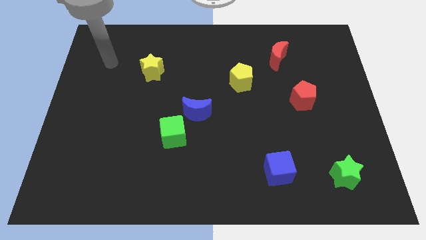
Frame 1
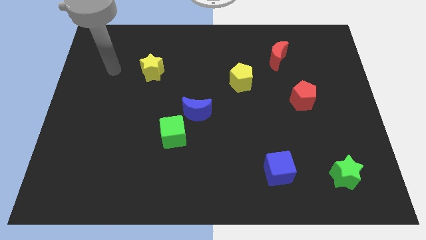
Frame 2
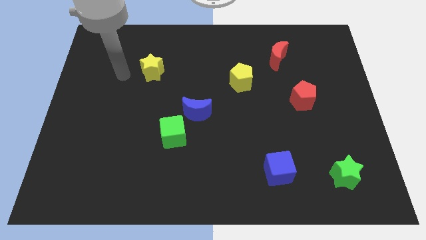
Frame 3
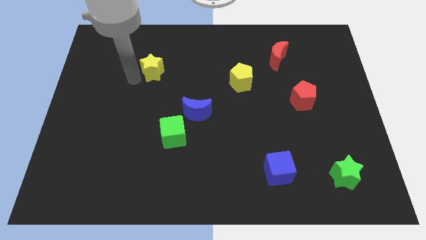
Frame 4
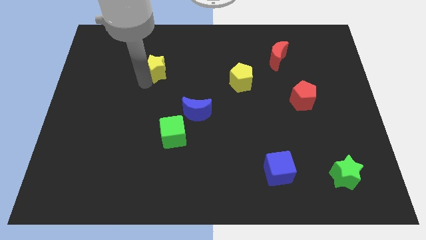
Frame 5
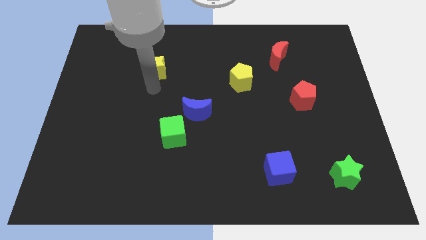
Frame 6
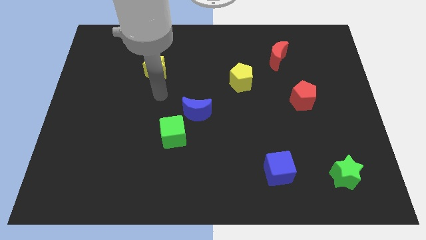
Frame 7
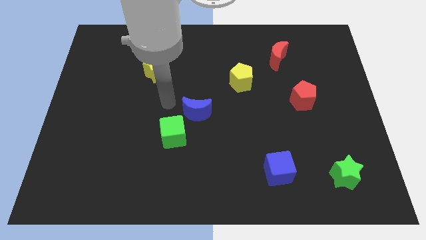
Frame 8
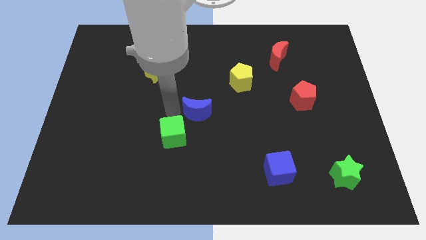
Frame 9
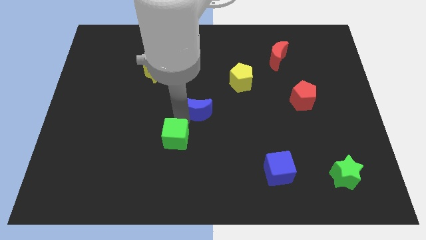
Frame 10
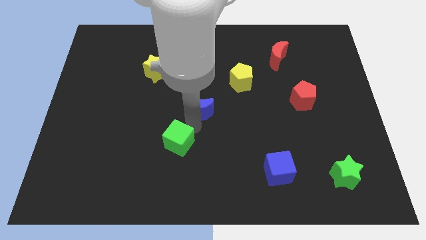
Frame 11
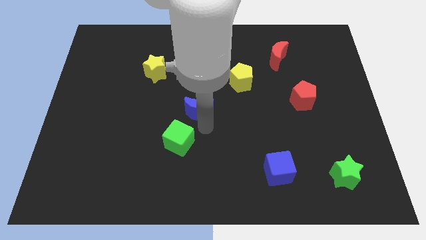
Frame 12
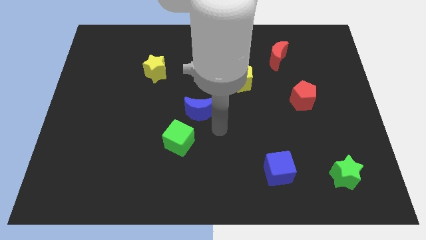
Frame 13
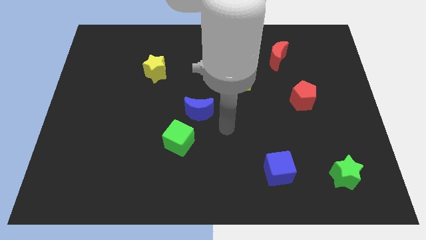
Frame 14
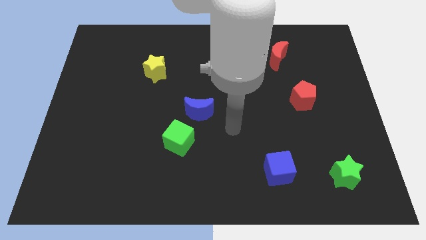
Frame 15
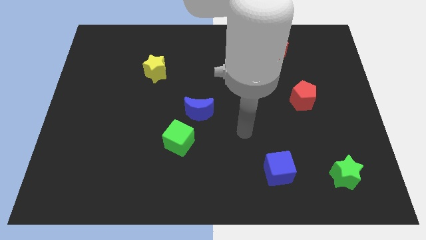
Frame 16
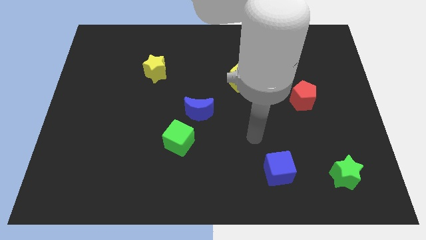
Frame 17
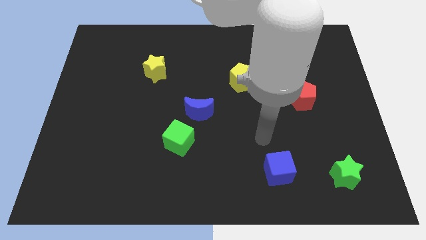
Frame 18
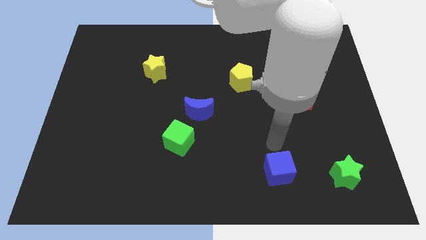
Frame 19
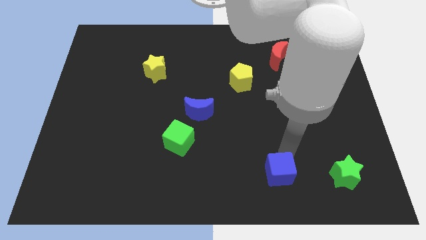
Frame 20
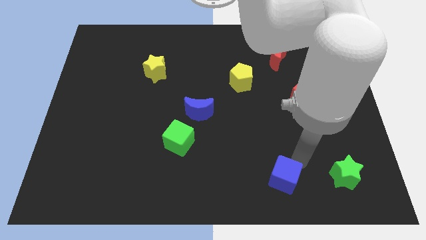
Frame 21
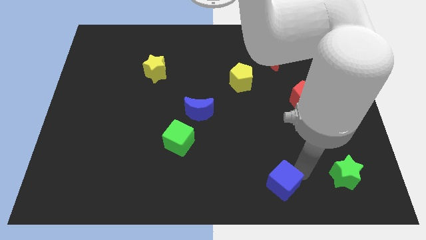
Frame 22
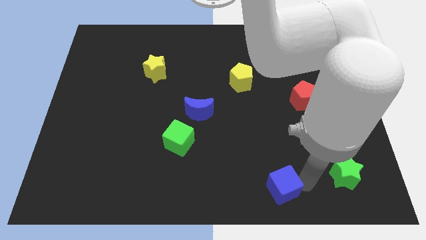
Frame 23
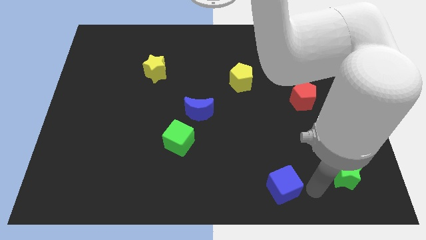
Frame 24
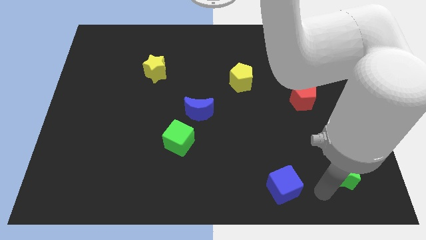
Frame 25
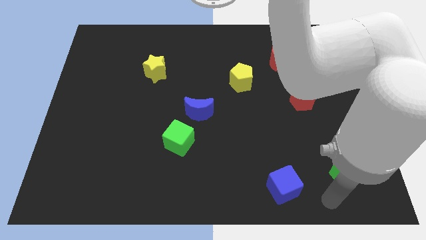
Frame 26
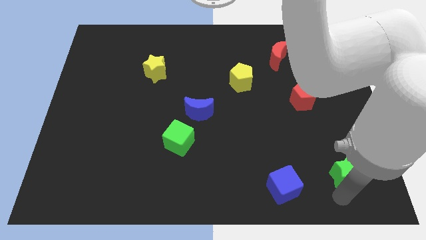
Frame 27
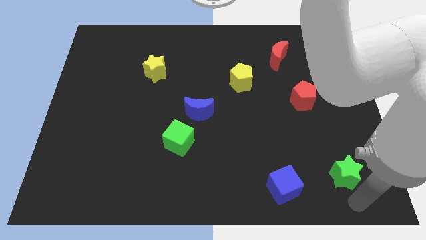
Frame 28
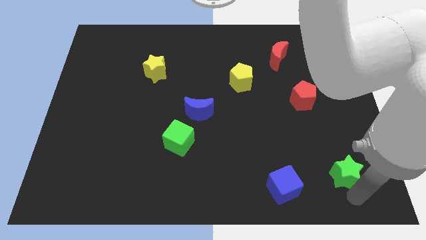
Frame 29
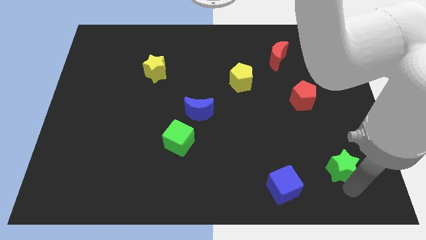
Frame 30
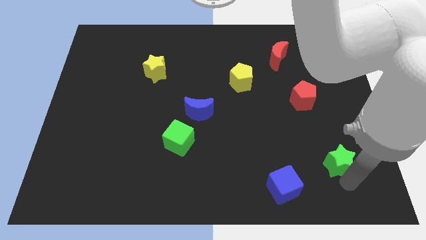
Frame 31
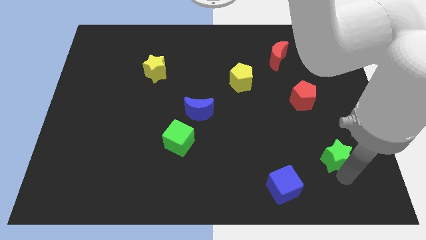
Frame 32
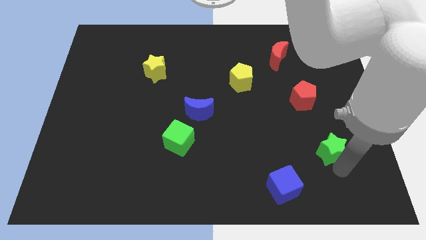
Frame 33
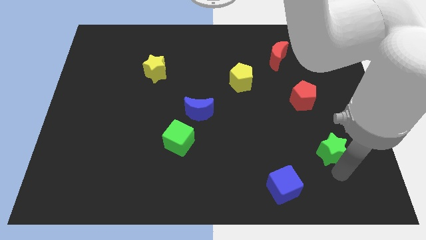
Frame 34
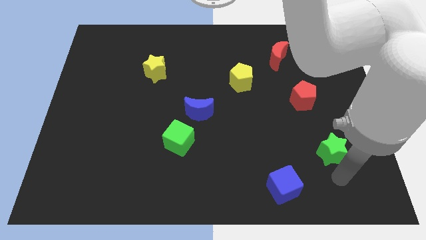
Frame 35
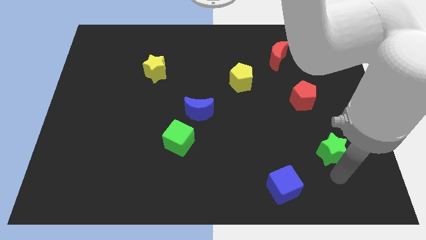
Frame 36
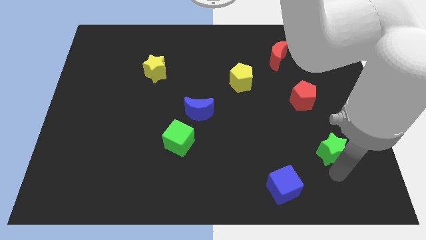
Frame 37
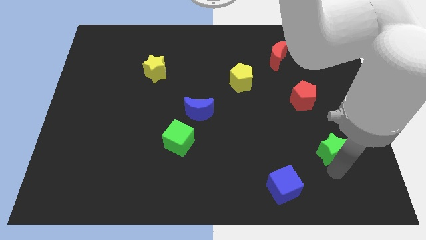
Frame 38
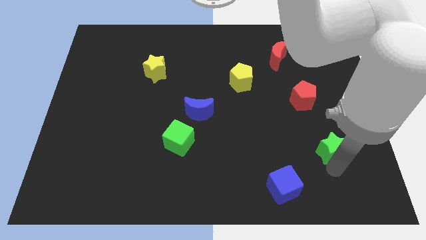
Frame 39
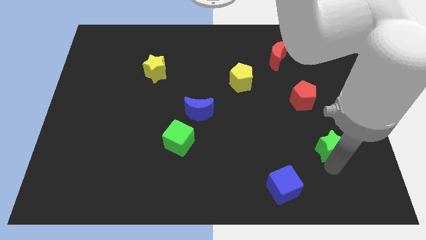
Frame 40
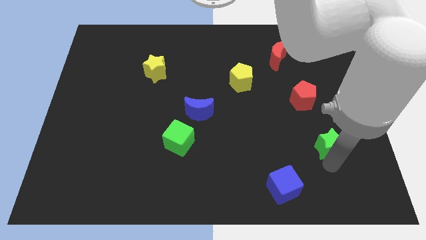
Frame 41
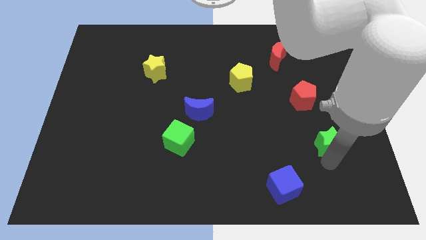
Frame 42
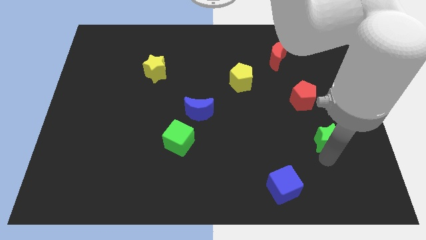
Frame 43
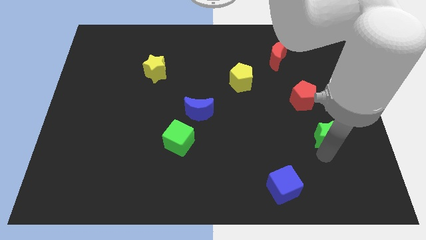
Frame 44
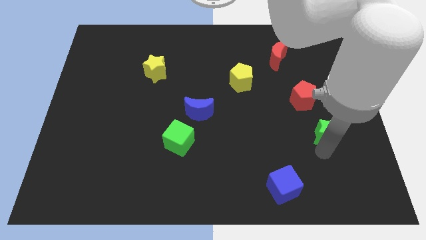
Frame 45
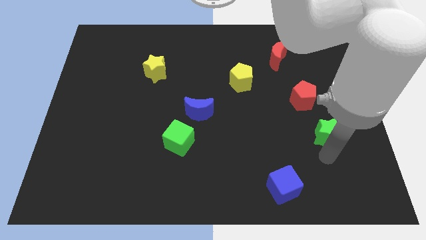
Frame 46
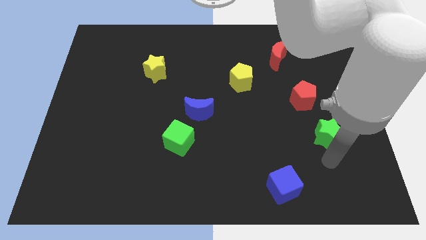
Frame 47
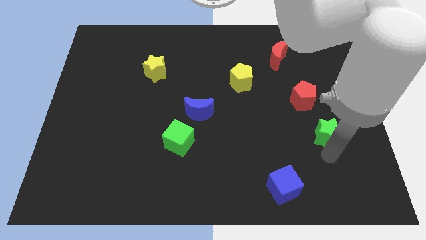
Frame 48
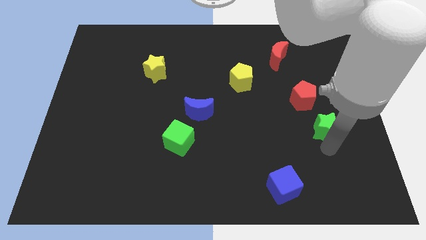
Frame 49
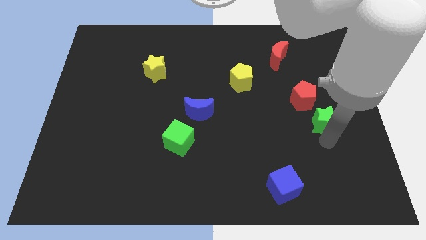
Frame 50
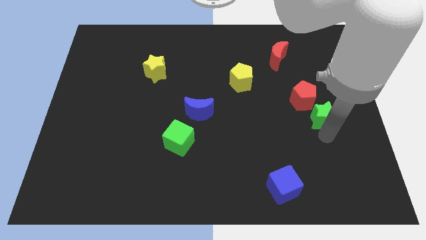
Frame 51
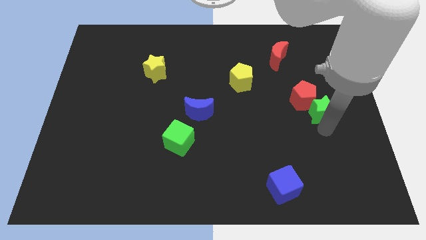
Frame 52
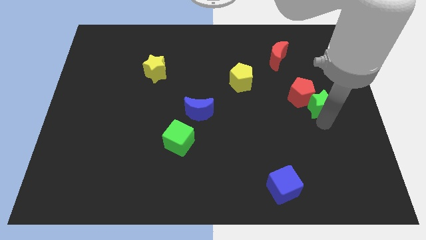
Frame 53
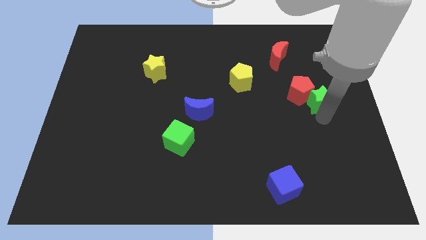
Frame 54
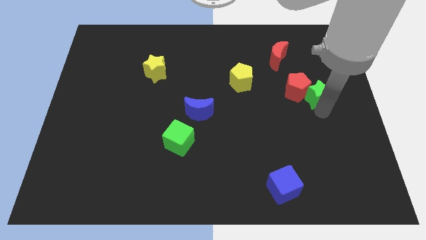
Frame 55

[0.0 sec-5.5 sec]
move the green star upwards

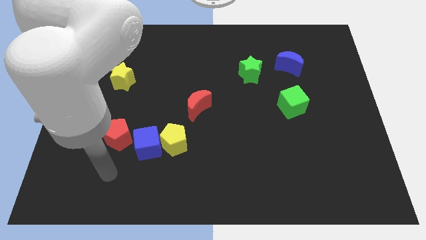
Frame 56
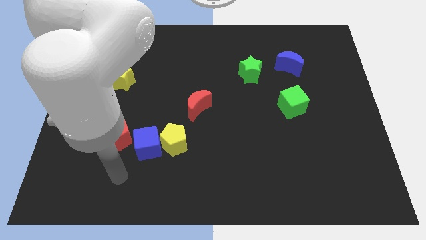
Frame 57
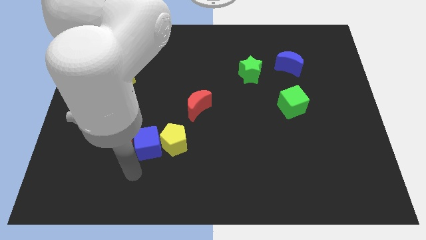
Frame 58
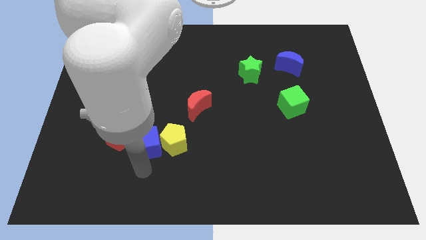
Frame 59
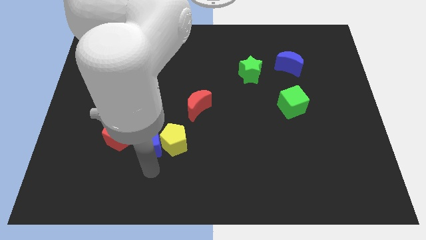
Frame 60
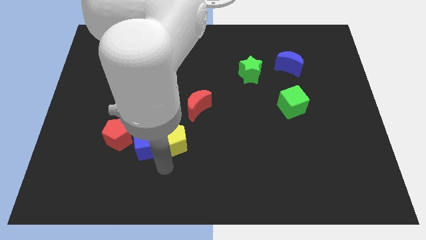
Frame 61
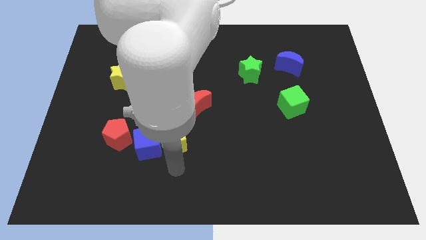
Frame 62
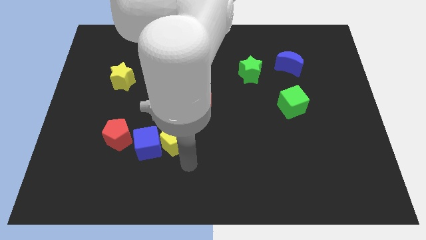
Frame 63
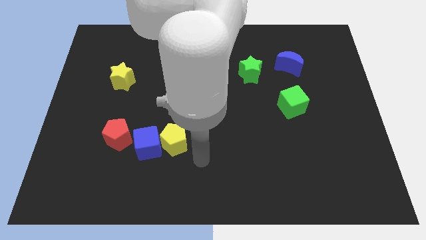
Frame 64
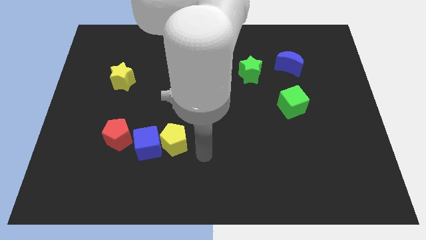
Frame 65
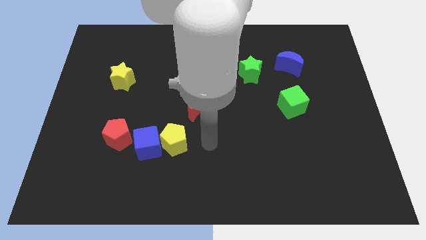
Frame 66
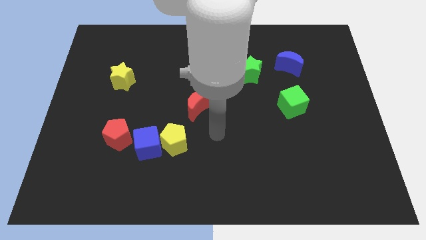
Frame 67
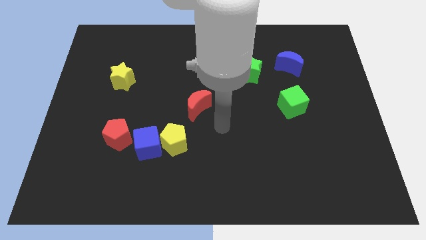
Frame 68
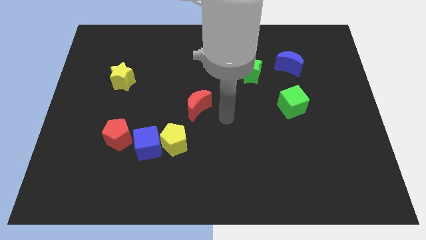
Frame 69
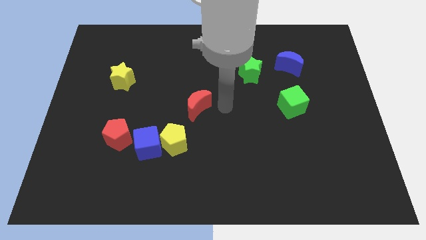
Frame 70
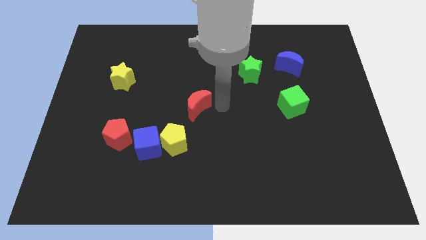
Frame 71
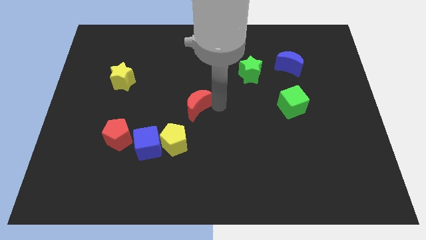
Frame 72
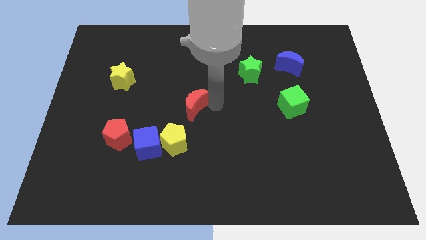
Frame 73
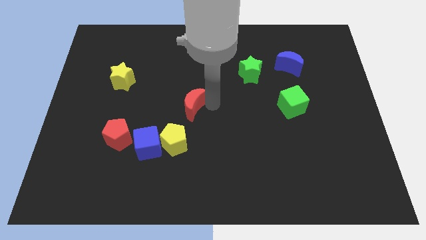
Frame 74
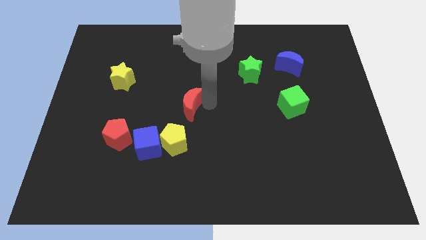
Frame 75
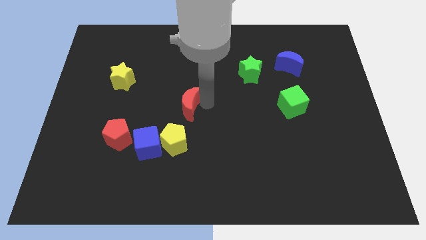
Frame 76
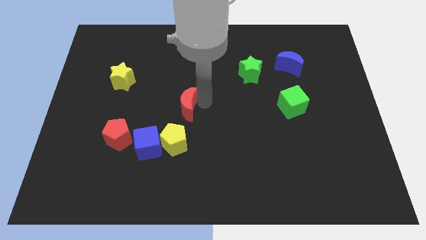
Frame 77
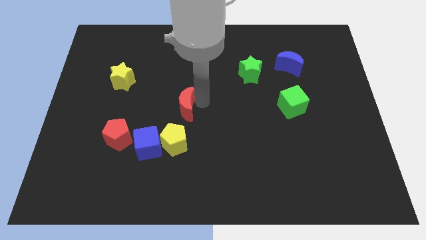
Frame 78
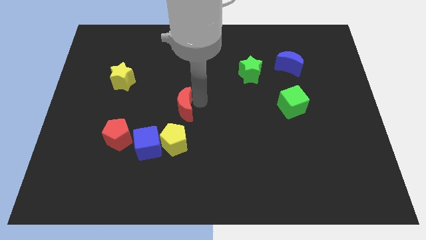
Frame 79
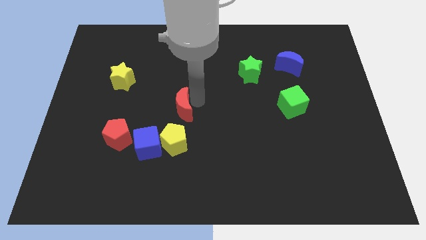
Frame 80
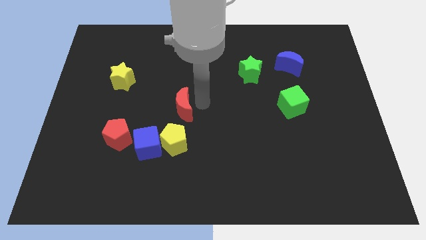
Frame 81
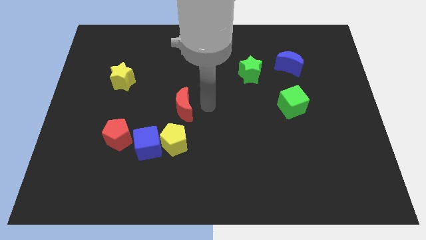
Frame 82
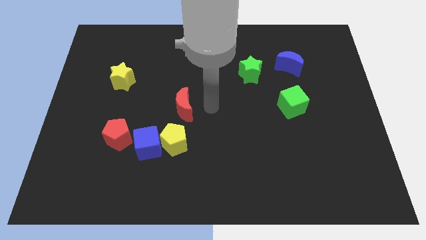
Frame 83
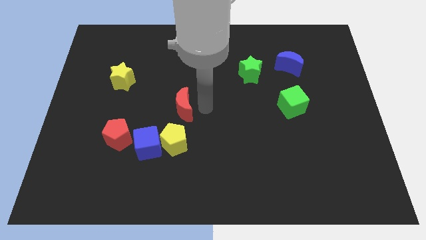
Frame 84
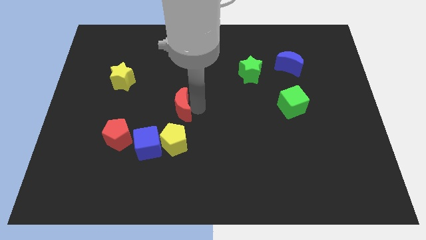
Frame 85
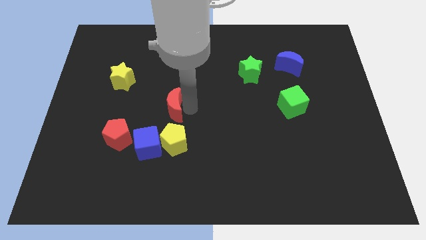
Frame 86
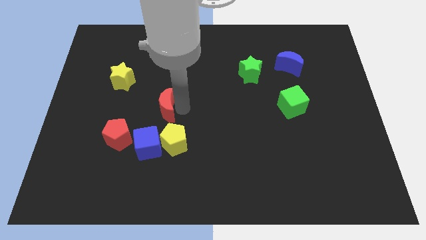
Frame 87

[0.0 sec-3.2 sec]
slightly push the red moon left
